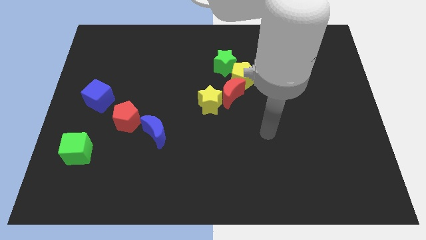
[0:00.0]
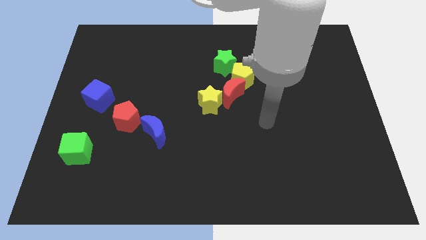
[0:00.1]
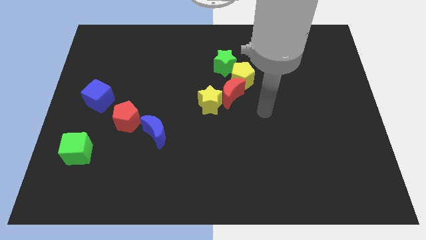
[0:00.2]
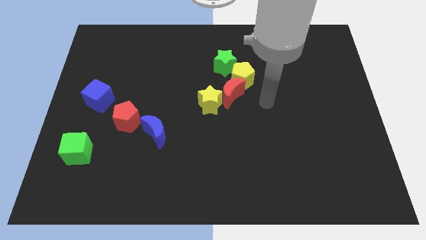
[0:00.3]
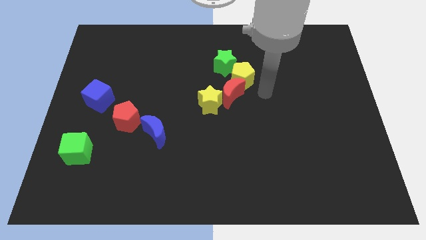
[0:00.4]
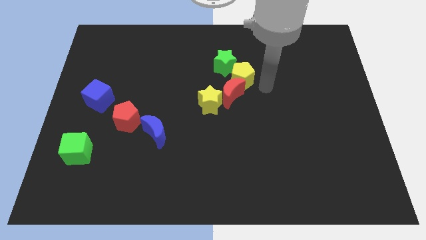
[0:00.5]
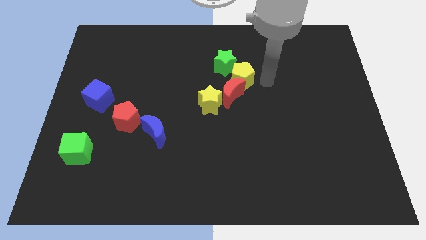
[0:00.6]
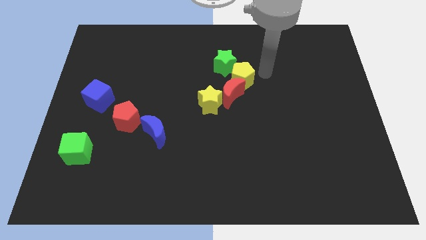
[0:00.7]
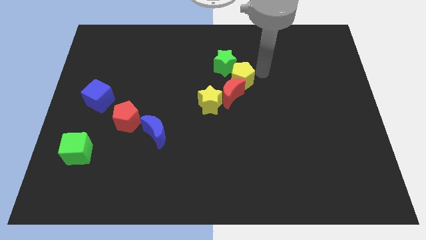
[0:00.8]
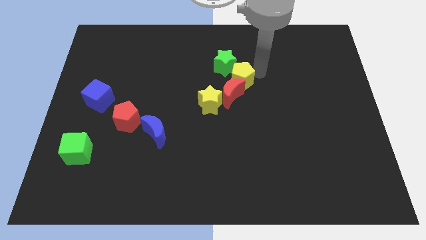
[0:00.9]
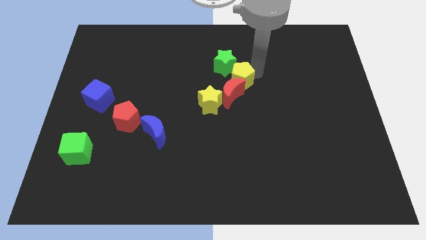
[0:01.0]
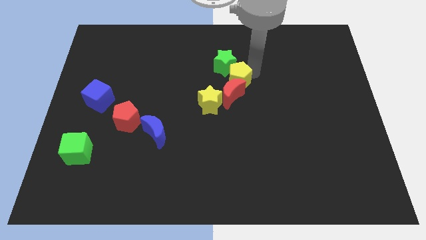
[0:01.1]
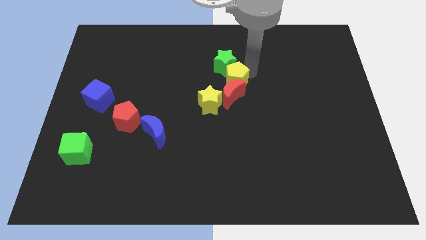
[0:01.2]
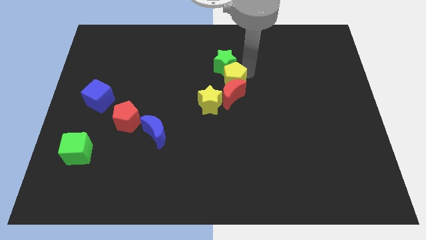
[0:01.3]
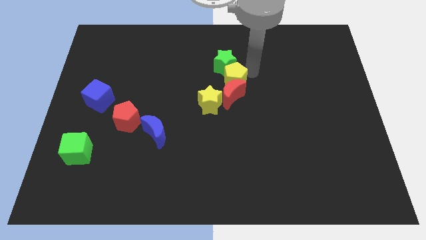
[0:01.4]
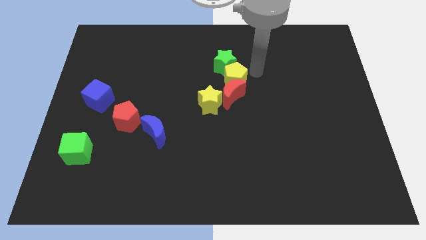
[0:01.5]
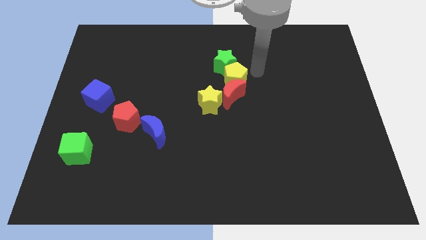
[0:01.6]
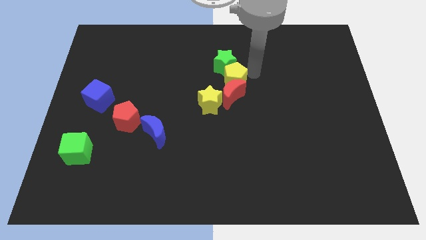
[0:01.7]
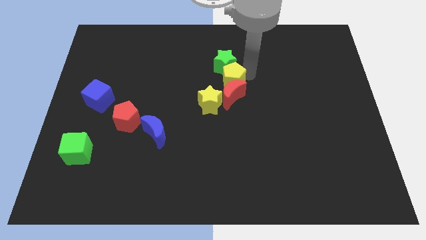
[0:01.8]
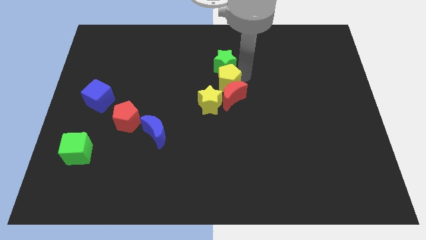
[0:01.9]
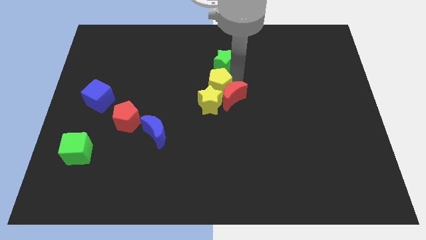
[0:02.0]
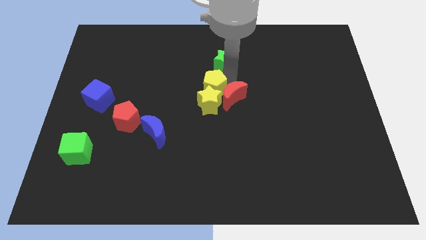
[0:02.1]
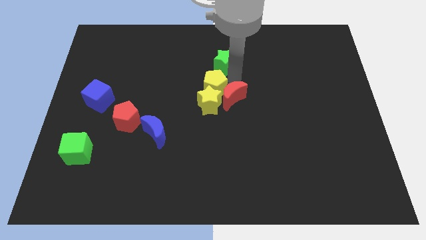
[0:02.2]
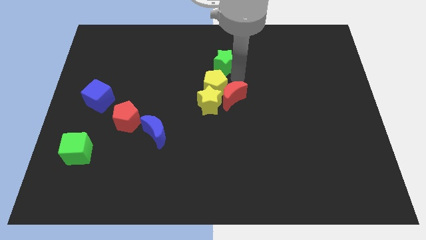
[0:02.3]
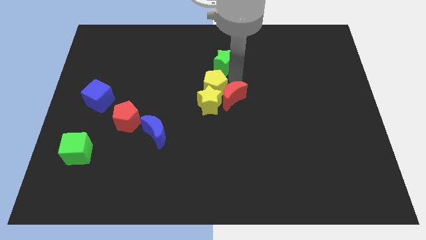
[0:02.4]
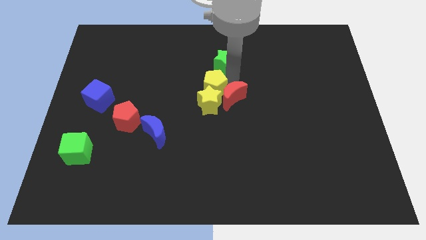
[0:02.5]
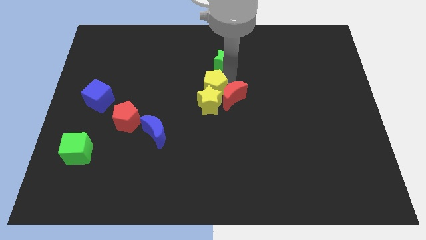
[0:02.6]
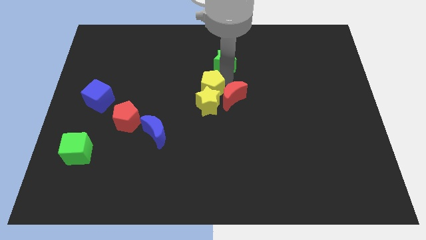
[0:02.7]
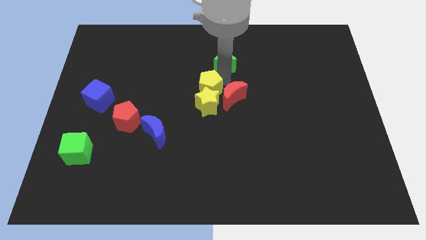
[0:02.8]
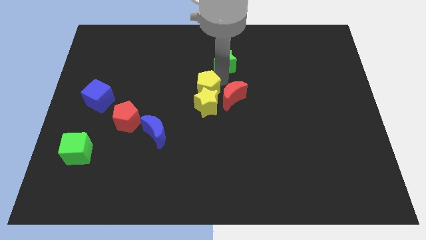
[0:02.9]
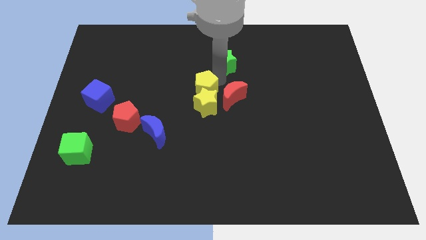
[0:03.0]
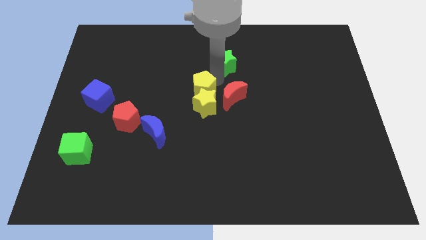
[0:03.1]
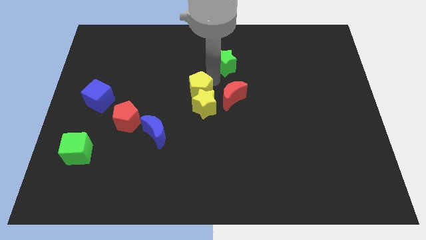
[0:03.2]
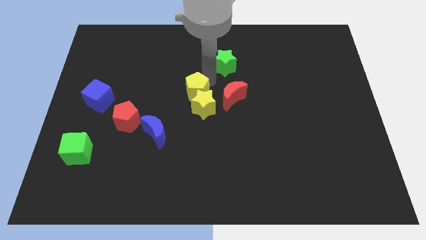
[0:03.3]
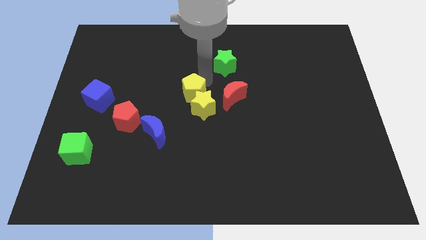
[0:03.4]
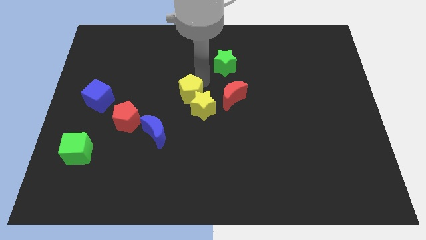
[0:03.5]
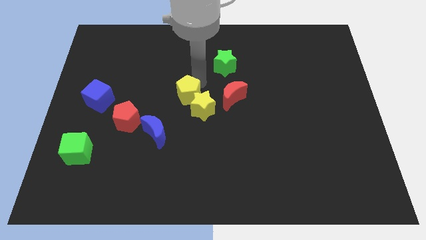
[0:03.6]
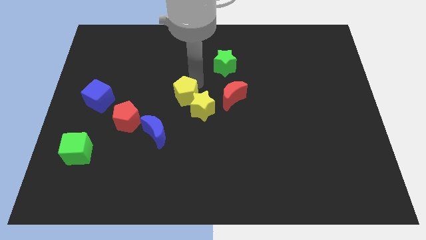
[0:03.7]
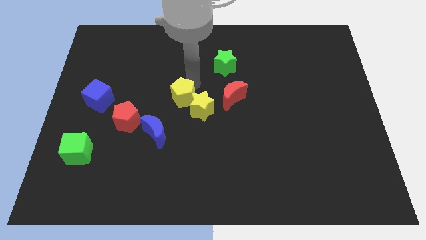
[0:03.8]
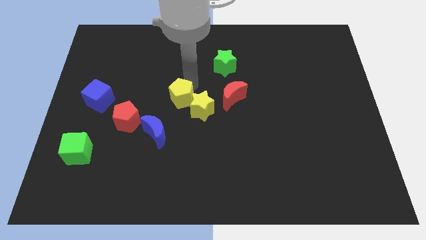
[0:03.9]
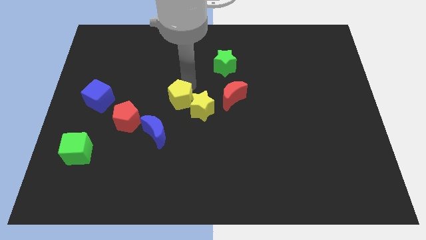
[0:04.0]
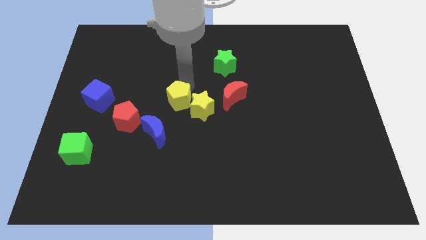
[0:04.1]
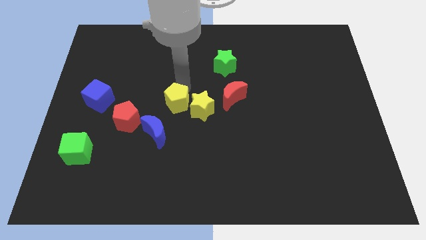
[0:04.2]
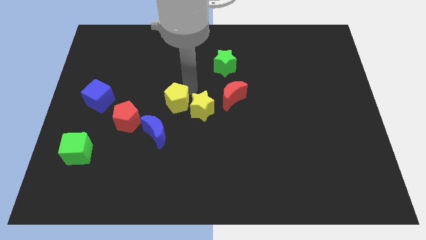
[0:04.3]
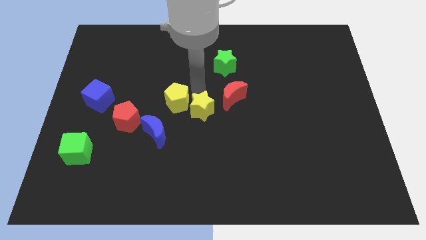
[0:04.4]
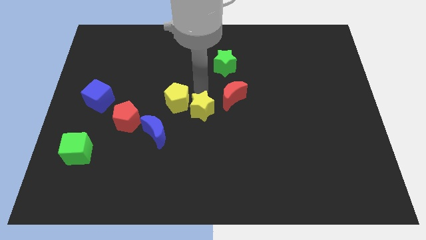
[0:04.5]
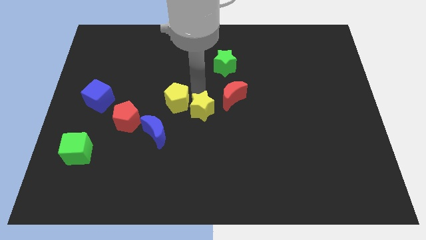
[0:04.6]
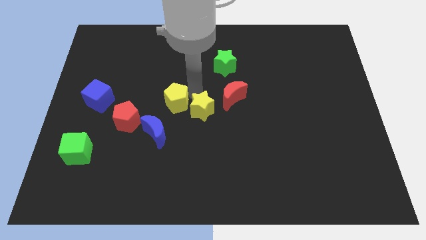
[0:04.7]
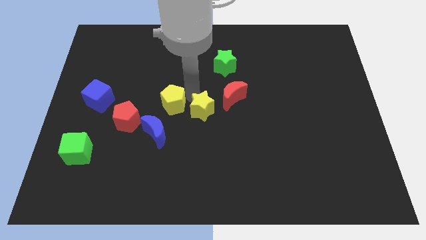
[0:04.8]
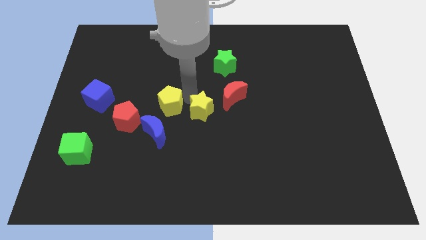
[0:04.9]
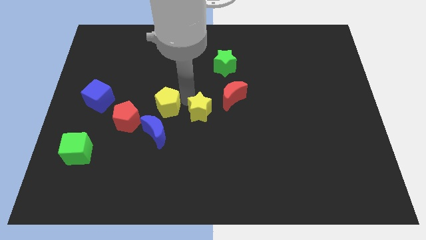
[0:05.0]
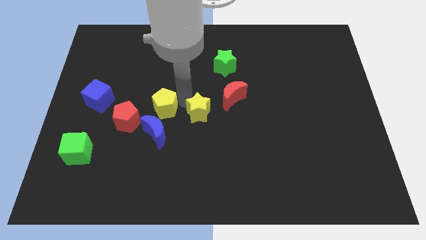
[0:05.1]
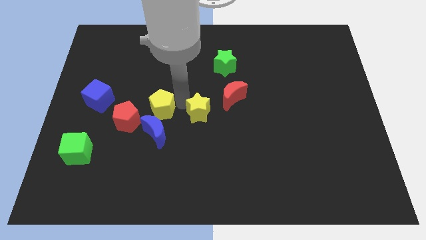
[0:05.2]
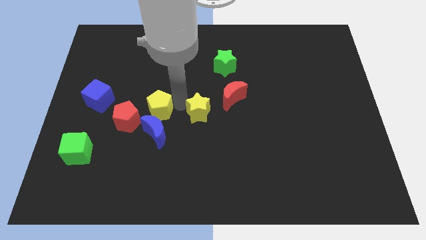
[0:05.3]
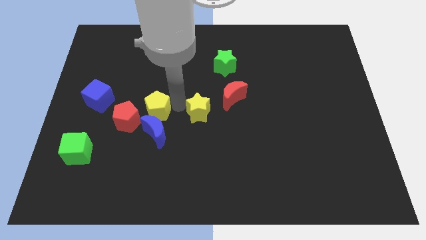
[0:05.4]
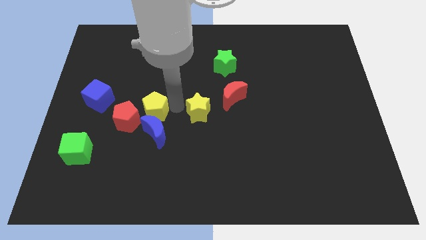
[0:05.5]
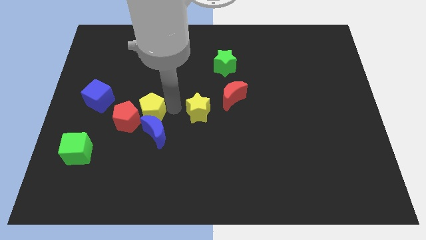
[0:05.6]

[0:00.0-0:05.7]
slide the yellow pentagon close to the red pentagon

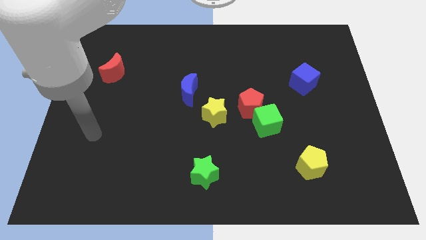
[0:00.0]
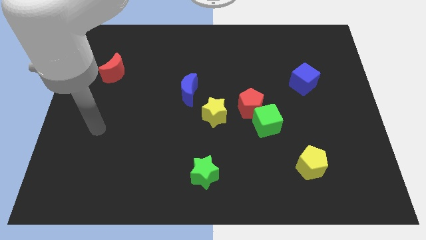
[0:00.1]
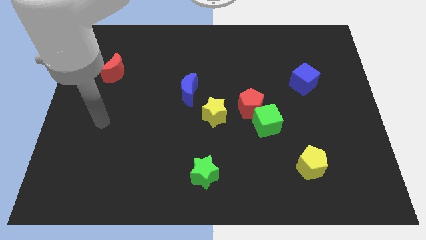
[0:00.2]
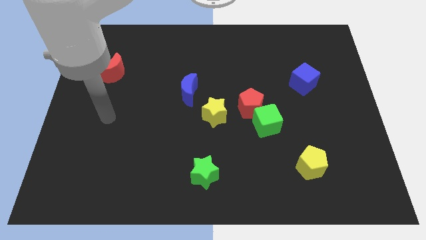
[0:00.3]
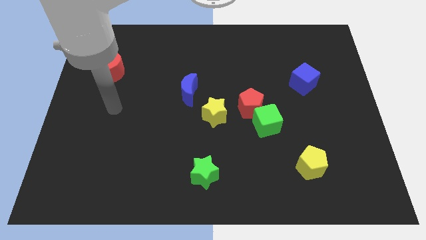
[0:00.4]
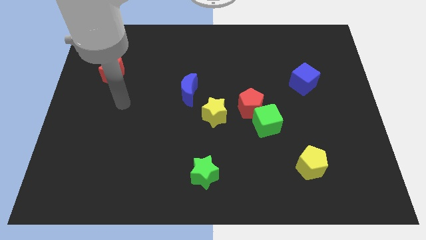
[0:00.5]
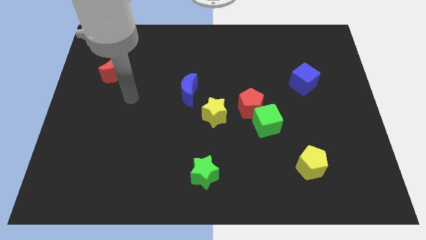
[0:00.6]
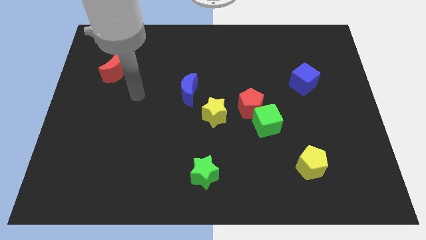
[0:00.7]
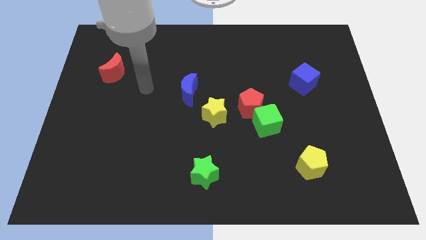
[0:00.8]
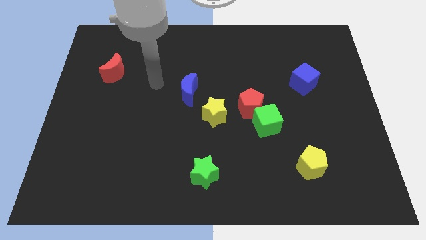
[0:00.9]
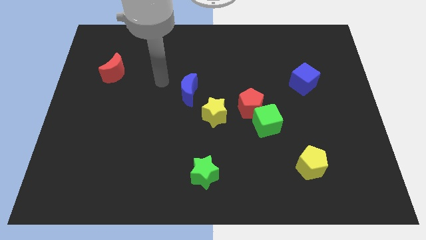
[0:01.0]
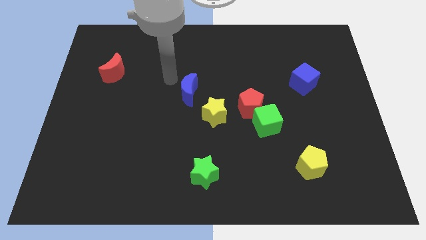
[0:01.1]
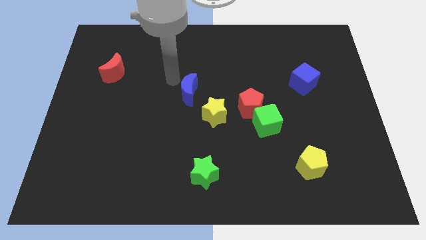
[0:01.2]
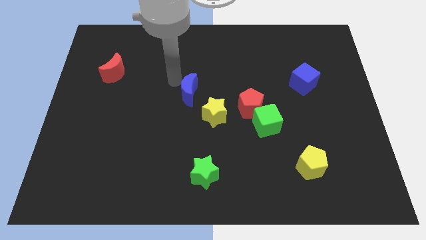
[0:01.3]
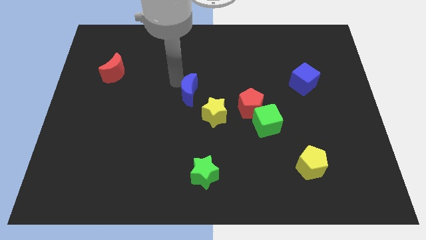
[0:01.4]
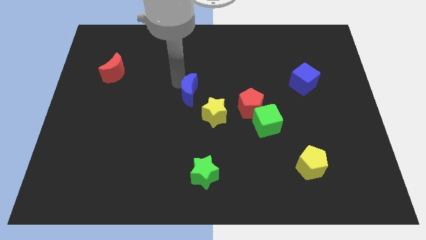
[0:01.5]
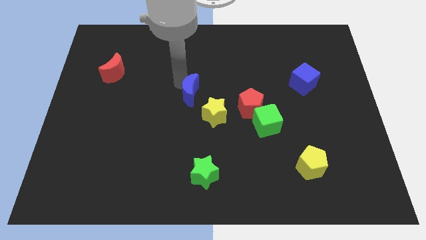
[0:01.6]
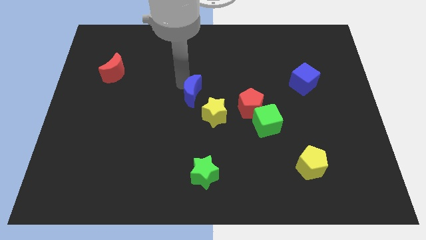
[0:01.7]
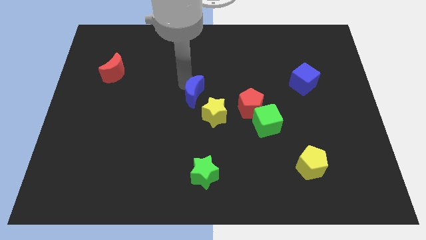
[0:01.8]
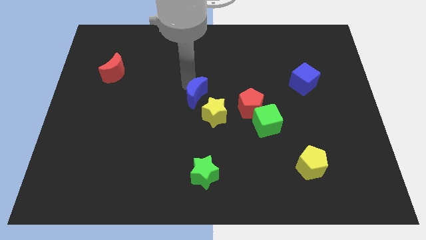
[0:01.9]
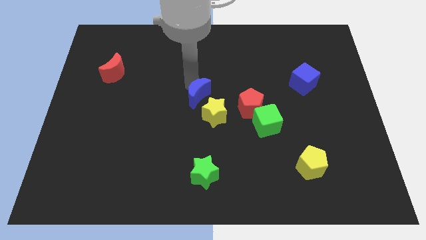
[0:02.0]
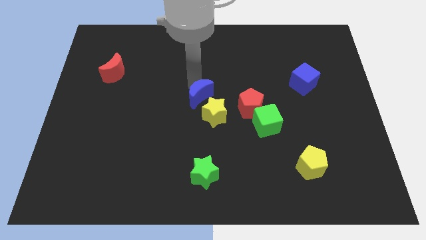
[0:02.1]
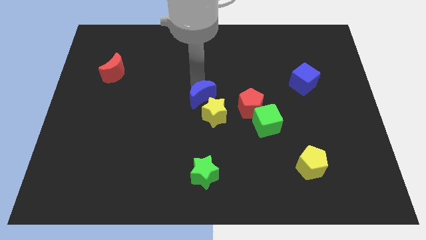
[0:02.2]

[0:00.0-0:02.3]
slide the blue moon towards the yellow star
